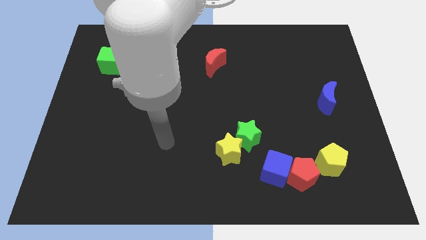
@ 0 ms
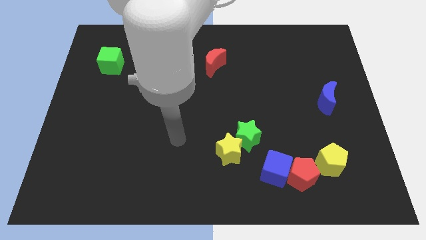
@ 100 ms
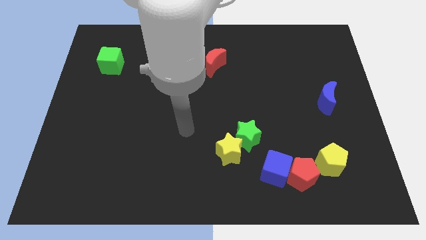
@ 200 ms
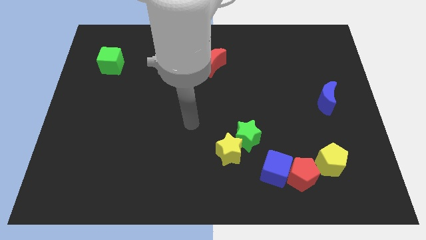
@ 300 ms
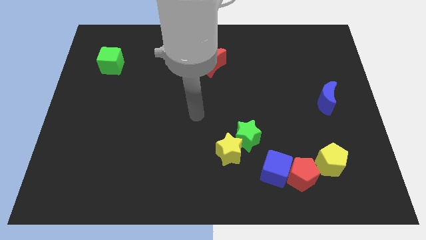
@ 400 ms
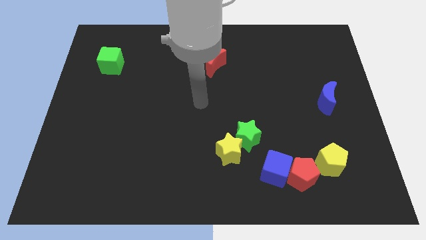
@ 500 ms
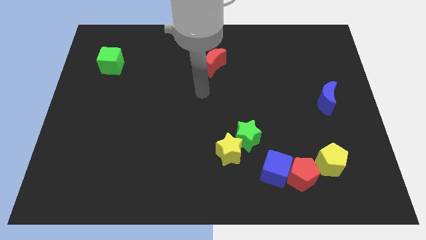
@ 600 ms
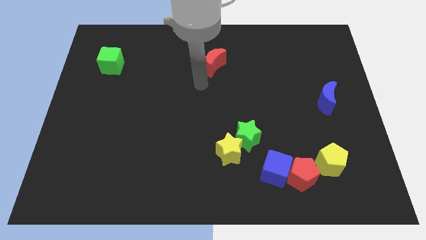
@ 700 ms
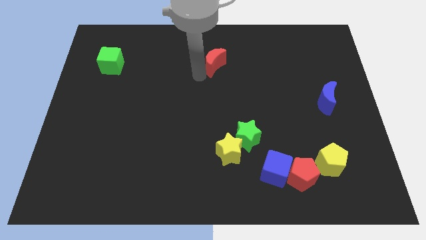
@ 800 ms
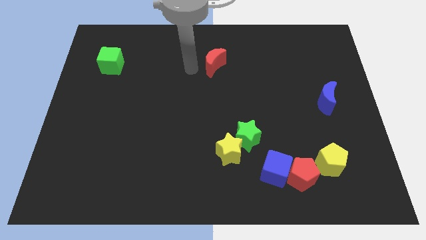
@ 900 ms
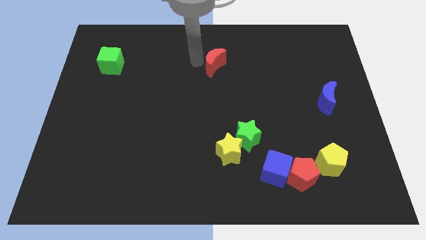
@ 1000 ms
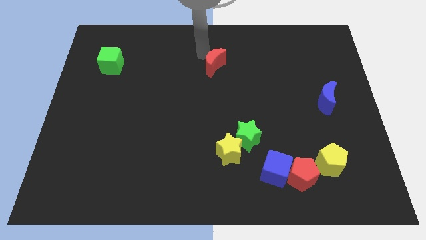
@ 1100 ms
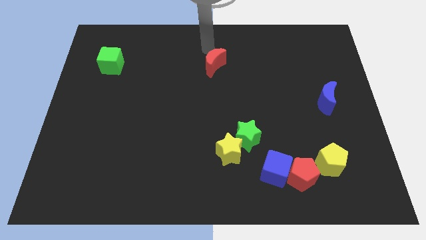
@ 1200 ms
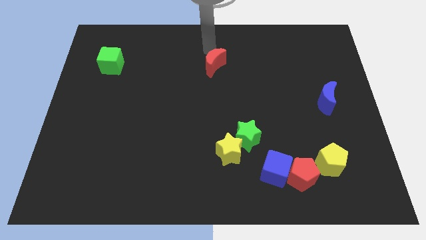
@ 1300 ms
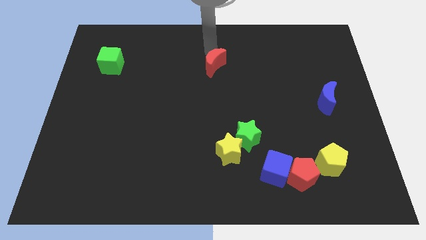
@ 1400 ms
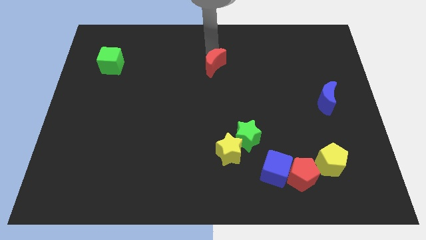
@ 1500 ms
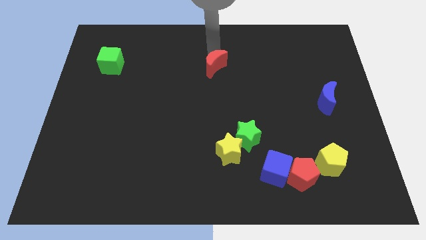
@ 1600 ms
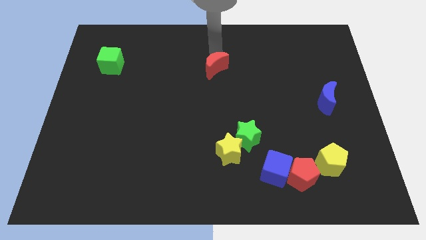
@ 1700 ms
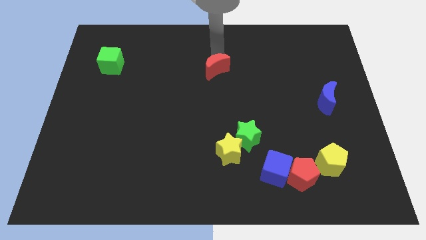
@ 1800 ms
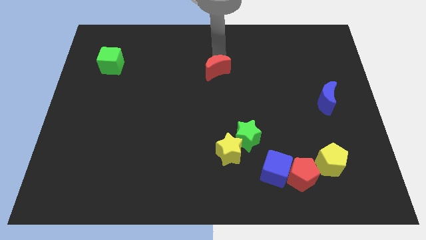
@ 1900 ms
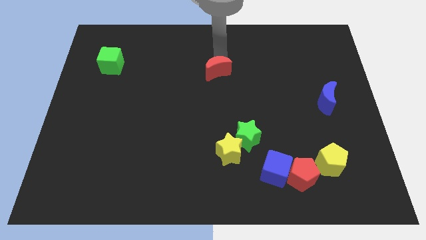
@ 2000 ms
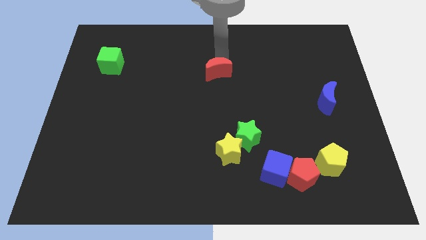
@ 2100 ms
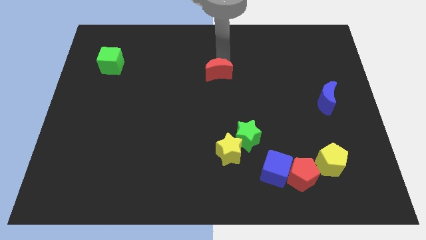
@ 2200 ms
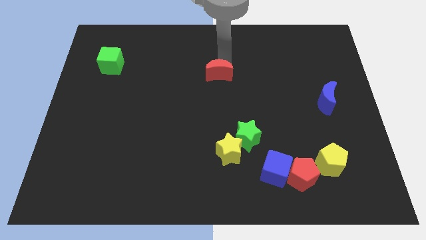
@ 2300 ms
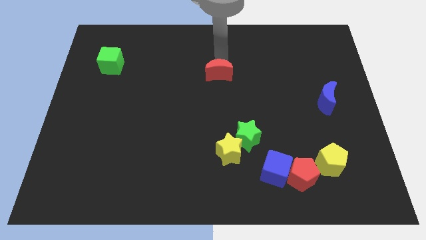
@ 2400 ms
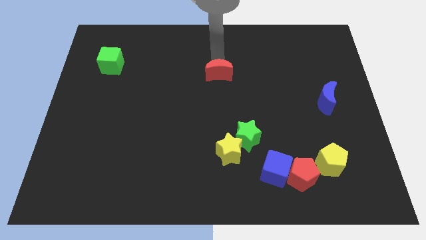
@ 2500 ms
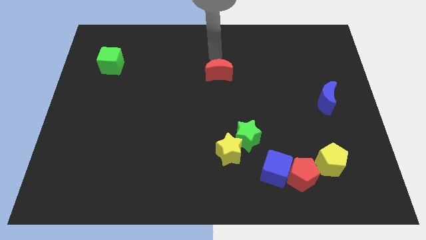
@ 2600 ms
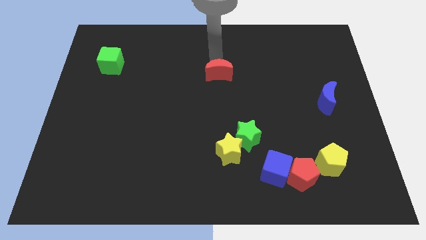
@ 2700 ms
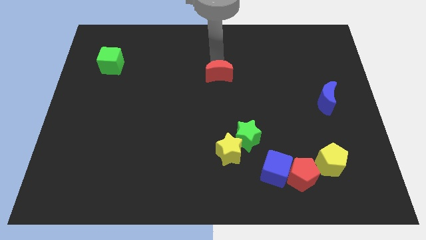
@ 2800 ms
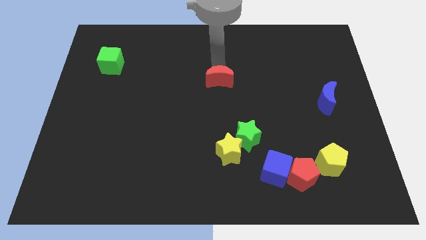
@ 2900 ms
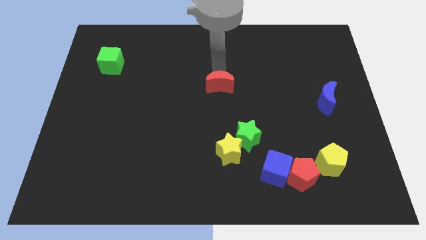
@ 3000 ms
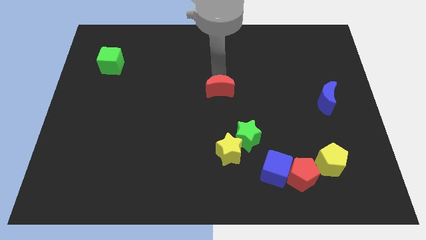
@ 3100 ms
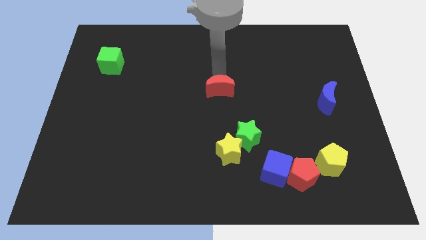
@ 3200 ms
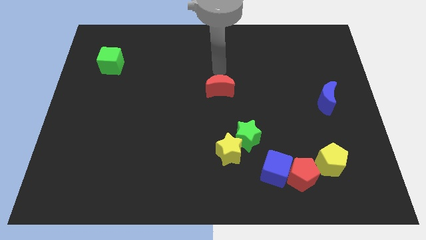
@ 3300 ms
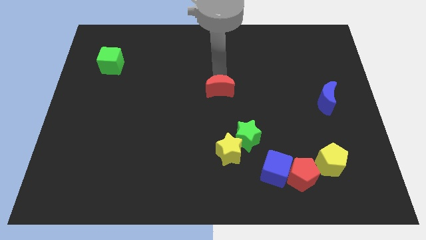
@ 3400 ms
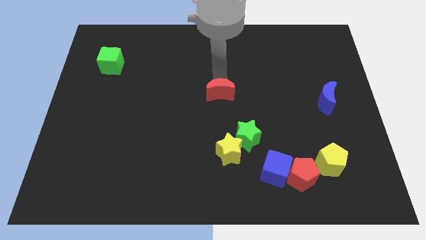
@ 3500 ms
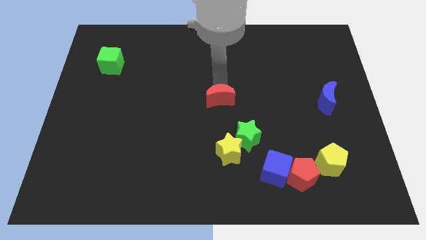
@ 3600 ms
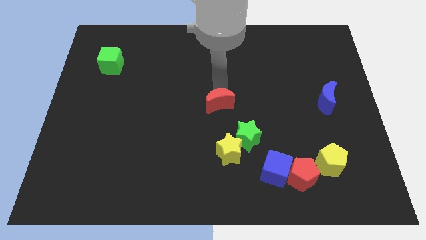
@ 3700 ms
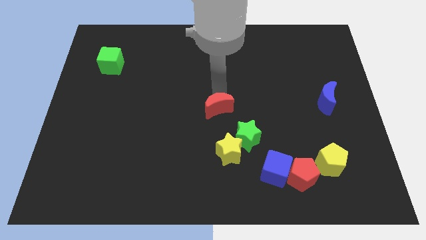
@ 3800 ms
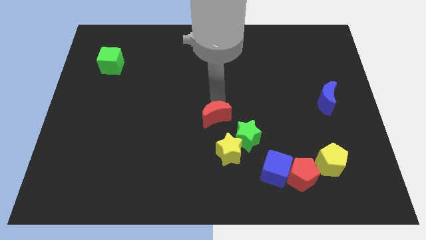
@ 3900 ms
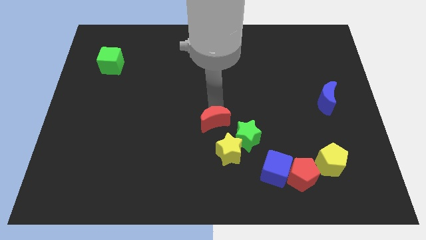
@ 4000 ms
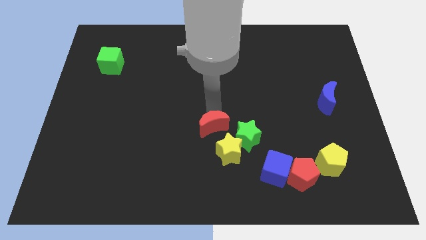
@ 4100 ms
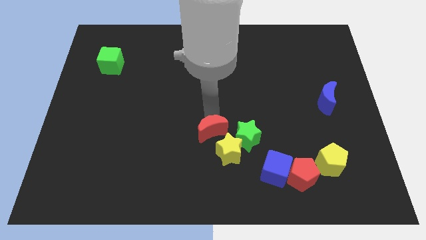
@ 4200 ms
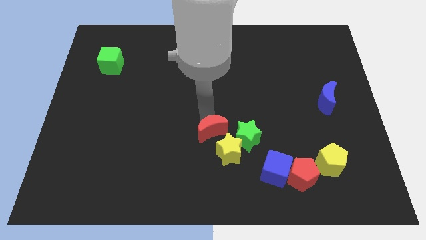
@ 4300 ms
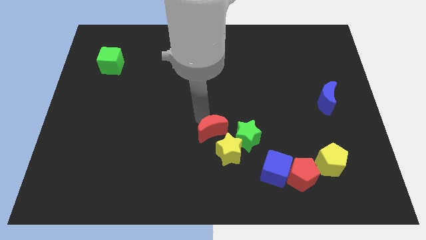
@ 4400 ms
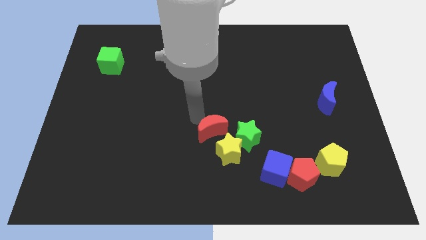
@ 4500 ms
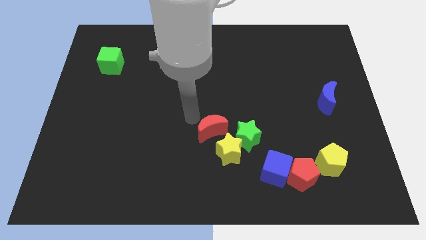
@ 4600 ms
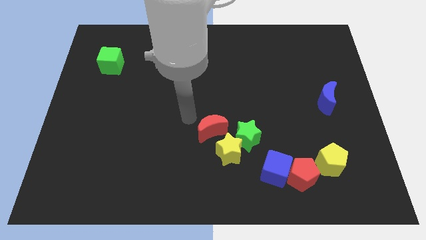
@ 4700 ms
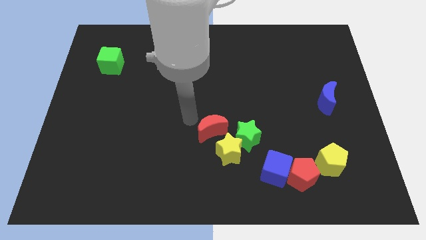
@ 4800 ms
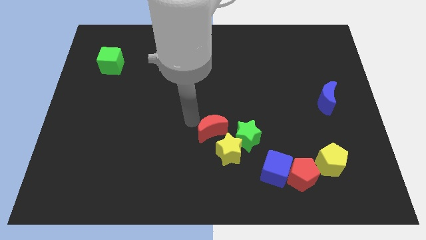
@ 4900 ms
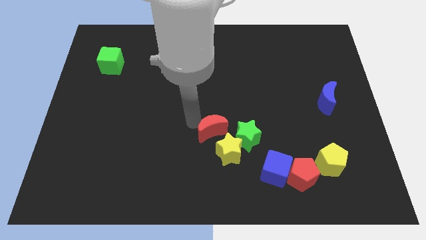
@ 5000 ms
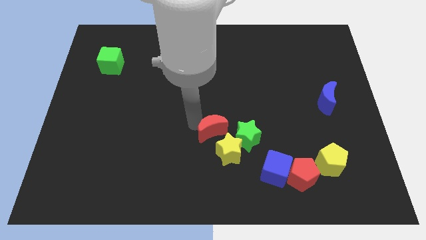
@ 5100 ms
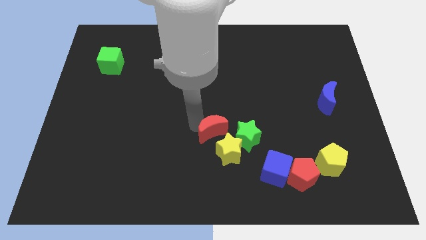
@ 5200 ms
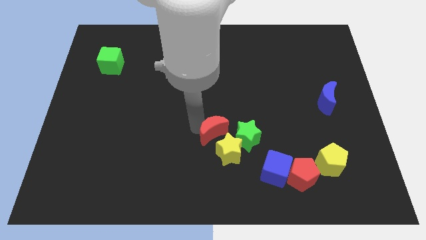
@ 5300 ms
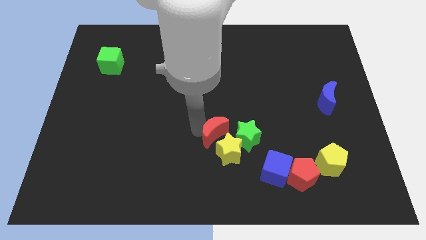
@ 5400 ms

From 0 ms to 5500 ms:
put the red moon to the yellow star
